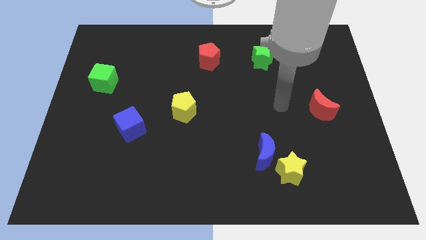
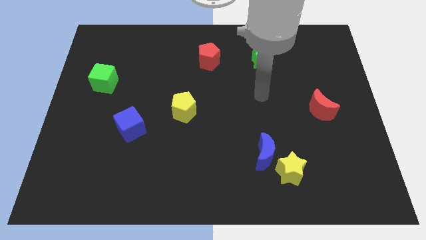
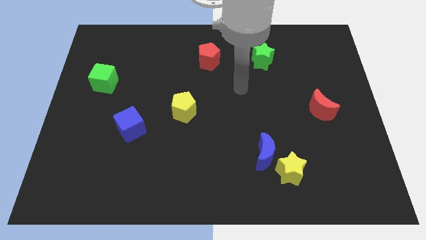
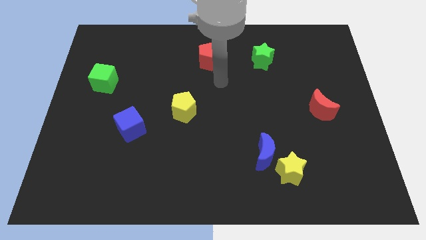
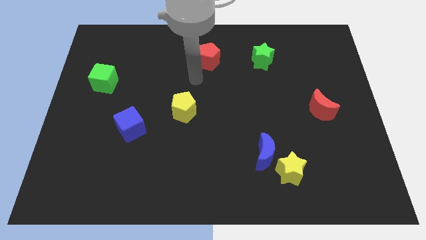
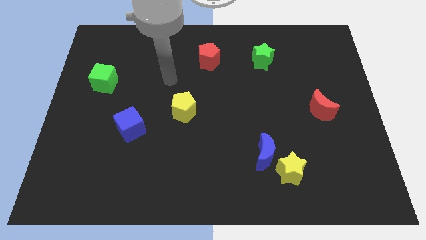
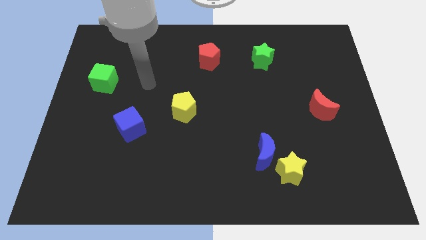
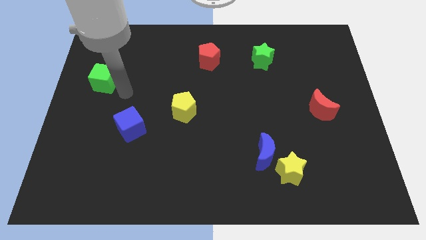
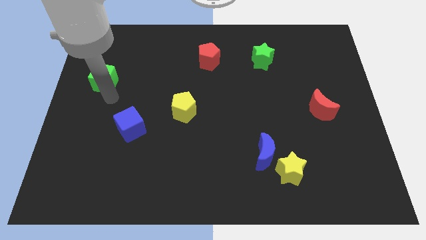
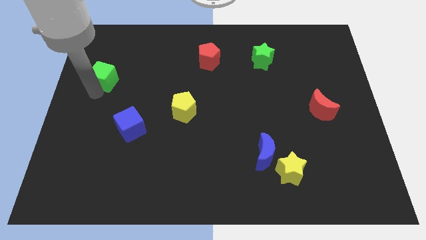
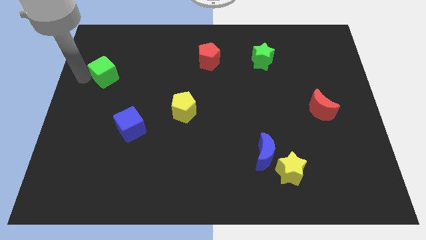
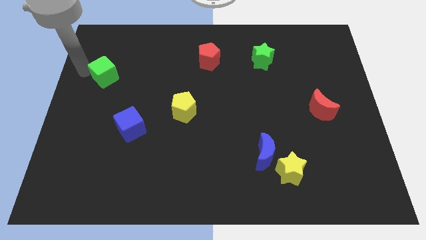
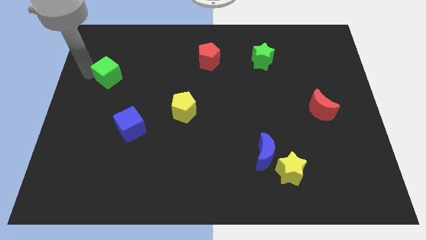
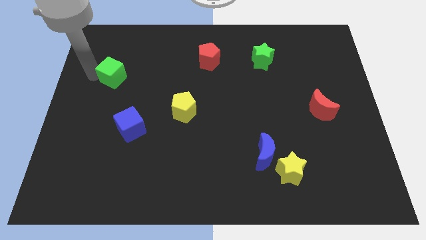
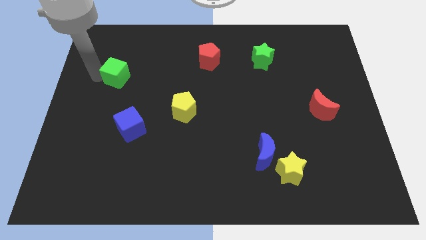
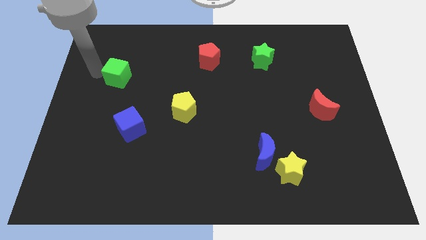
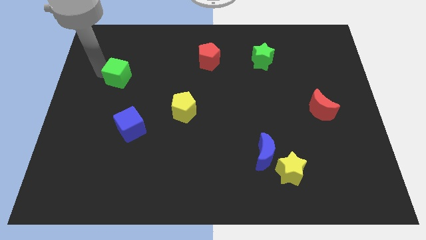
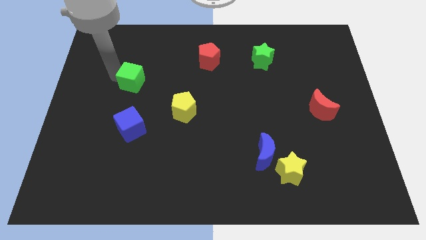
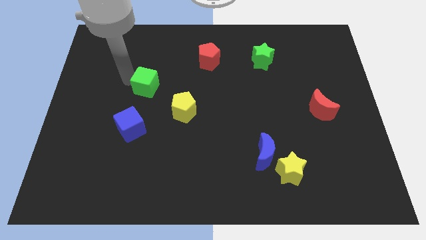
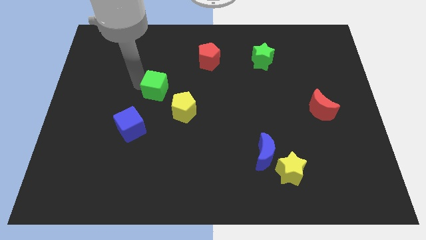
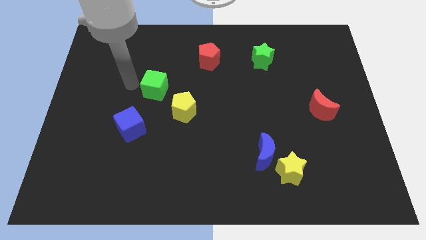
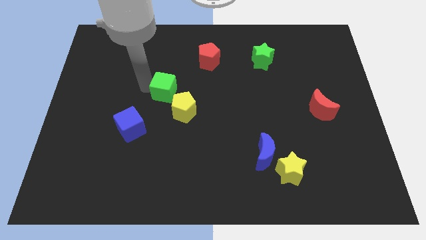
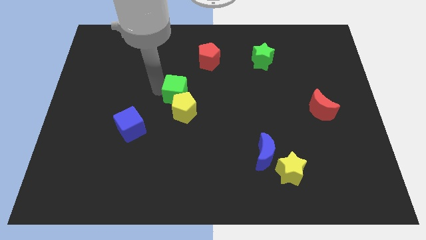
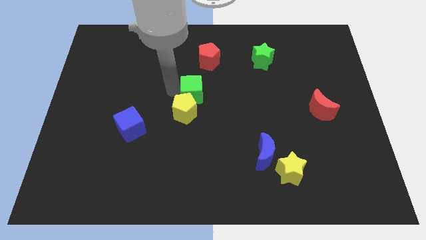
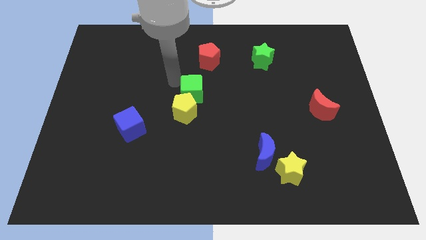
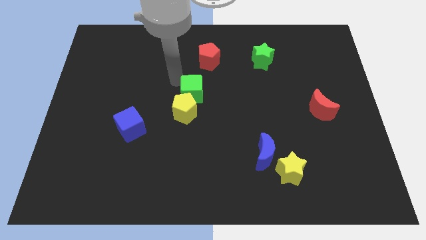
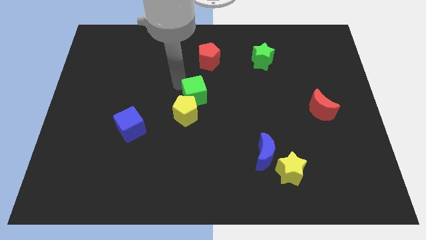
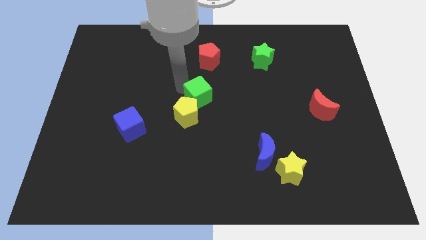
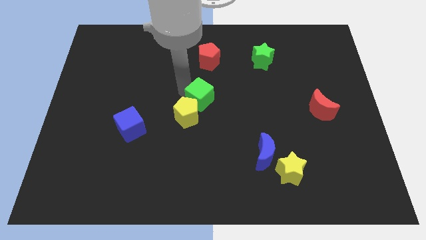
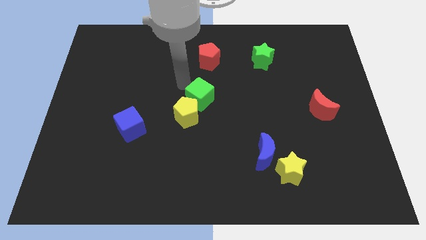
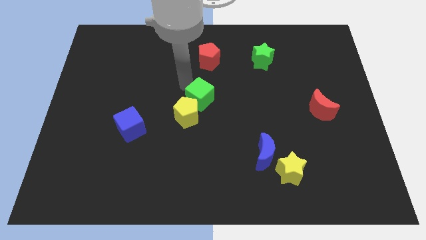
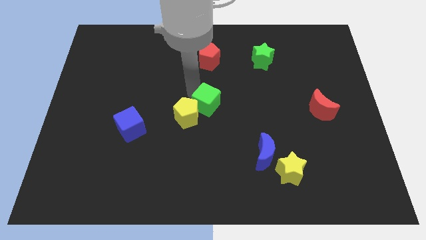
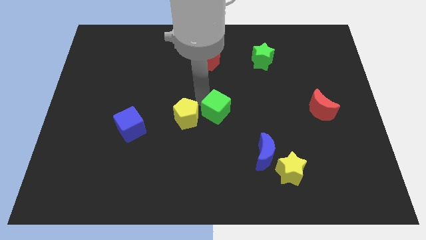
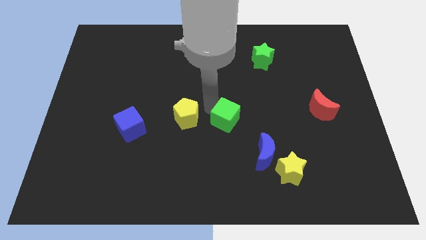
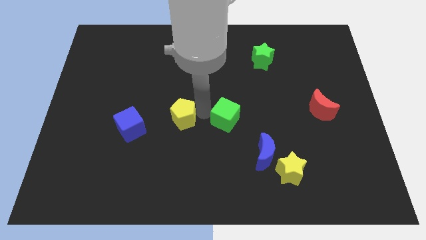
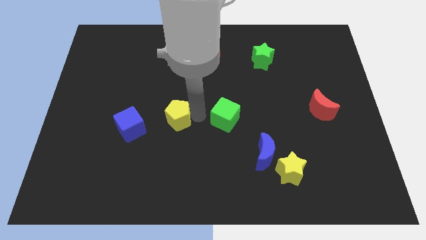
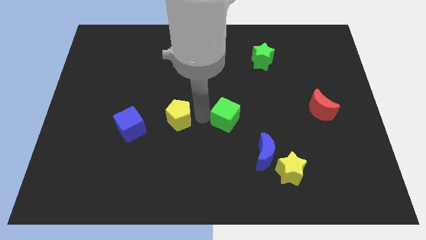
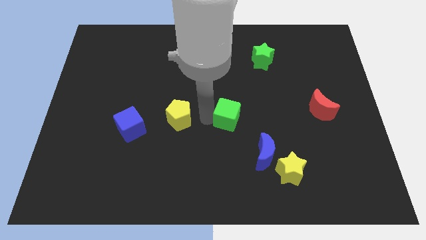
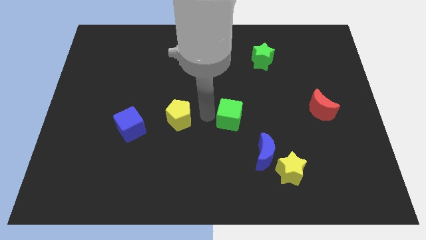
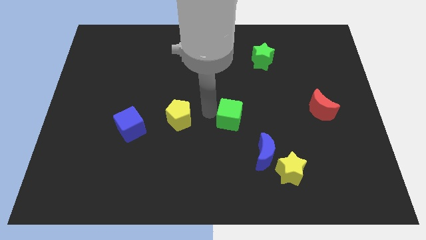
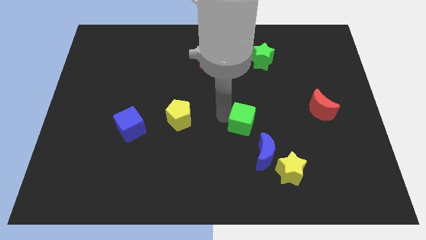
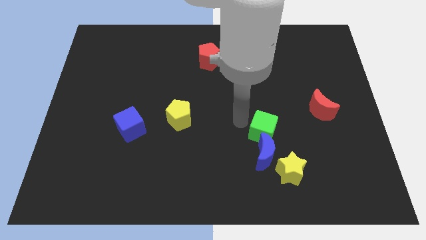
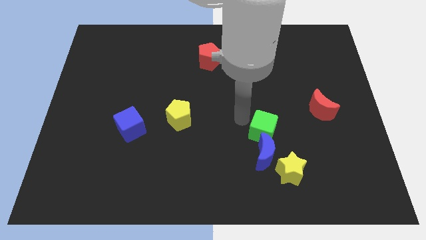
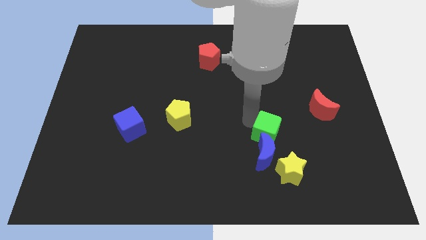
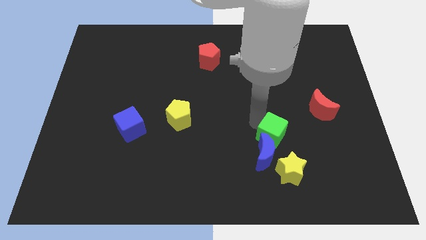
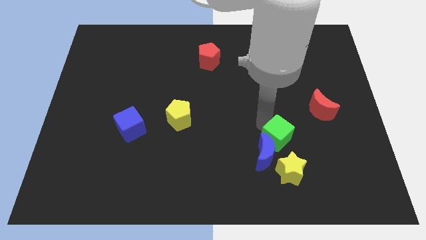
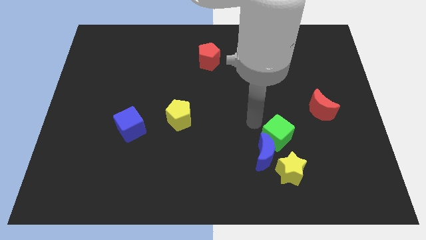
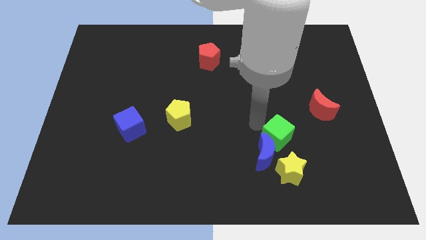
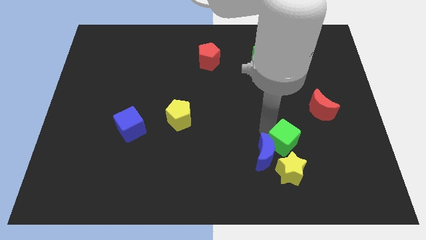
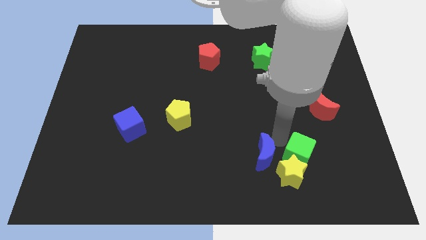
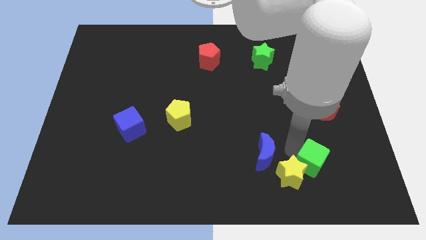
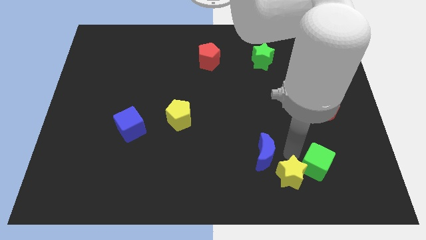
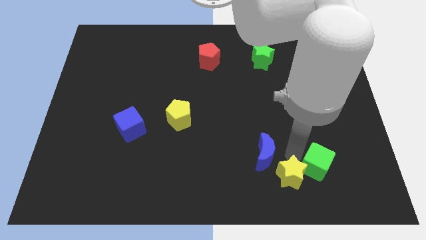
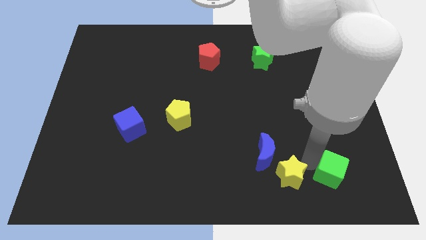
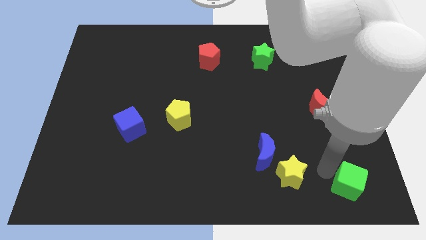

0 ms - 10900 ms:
put the green cube to the lower right corner

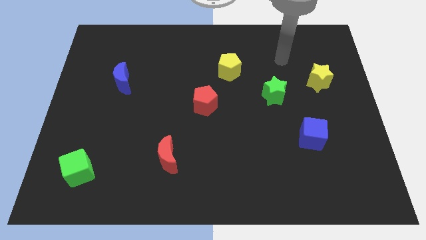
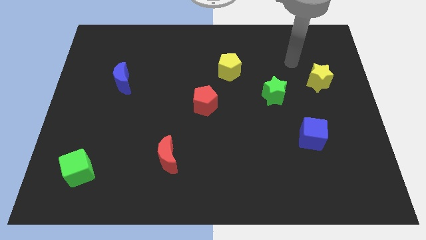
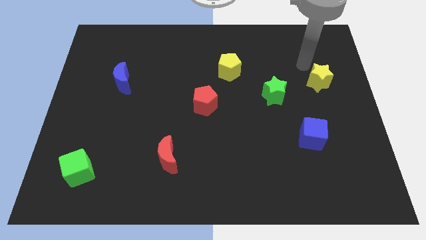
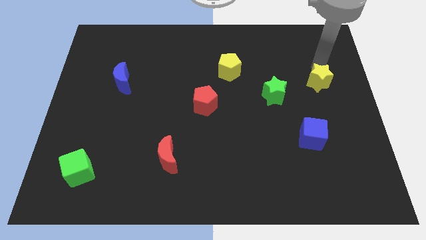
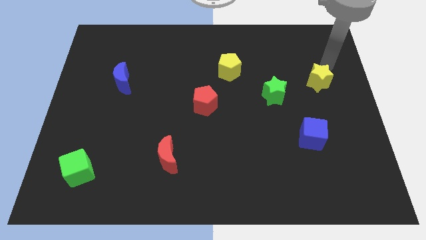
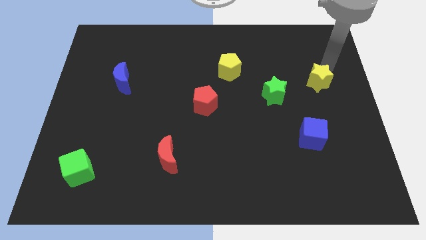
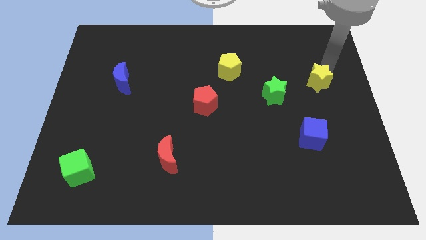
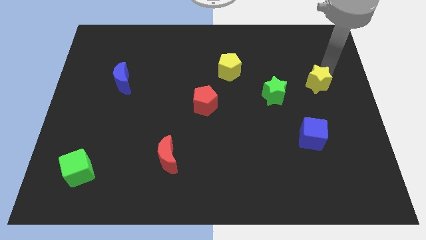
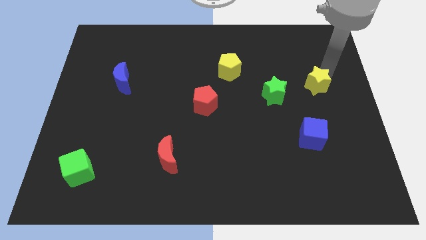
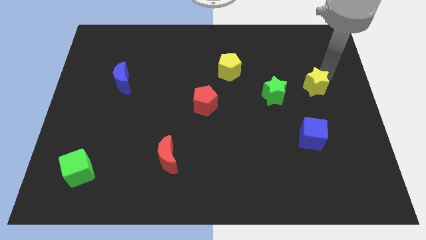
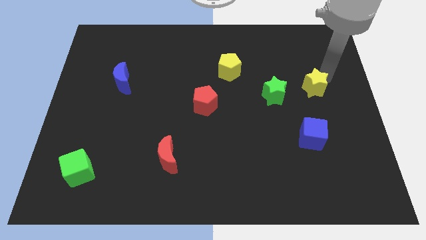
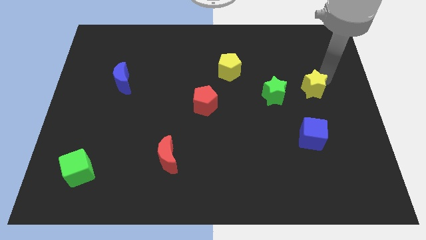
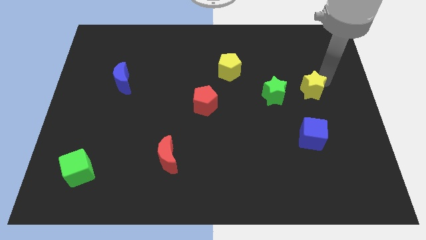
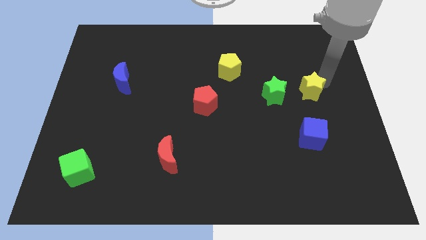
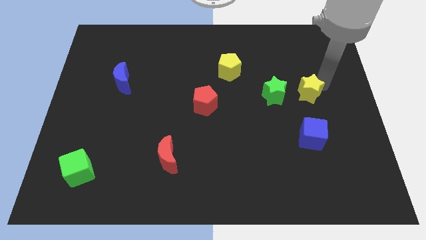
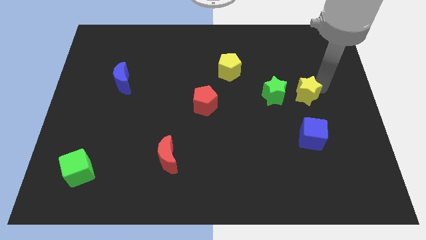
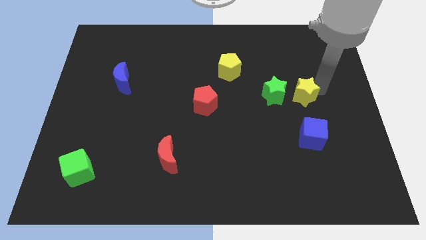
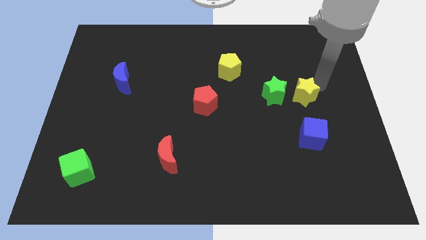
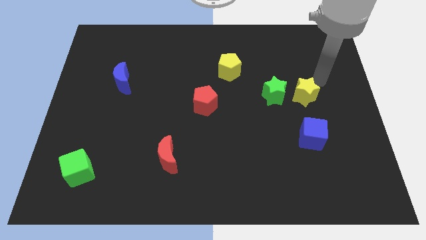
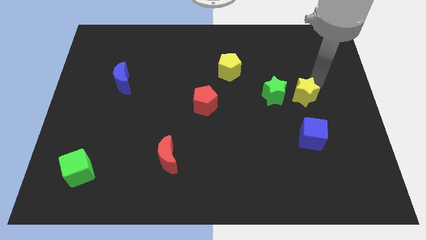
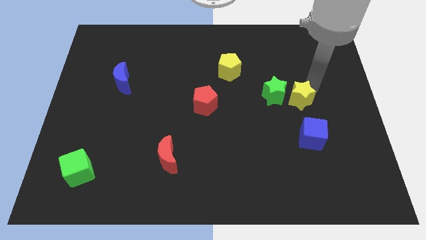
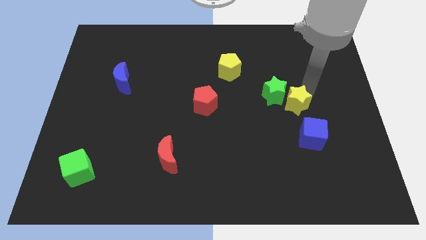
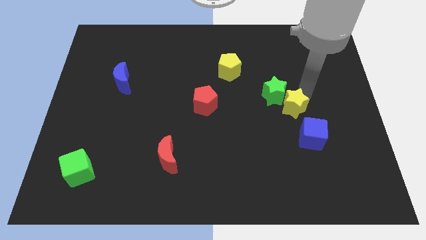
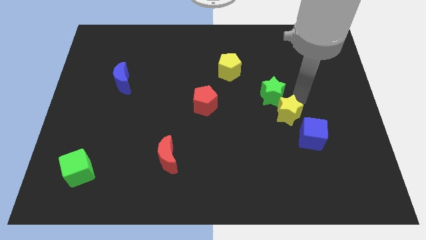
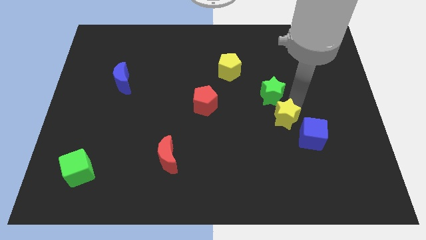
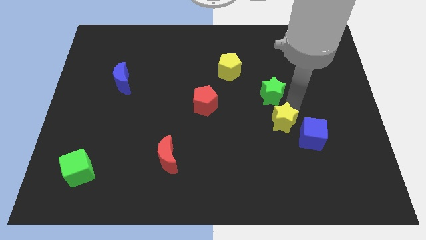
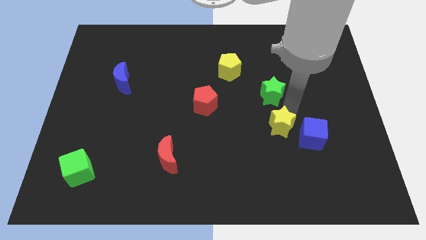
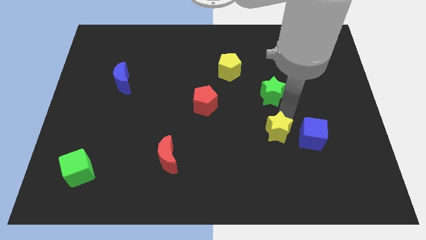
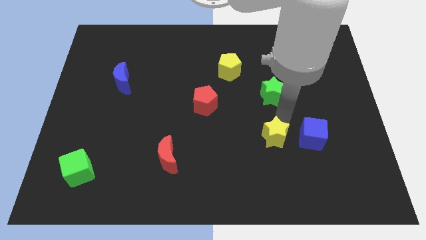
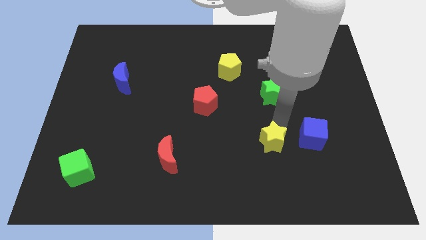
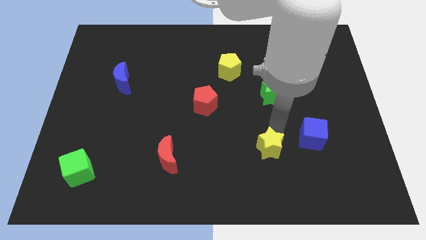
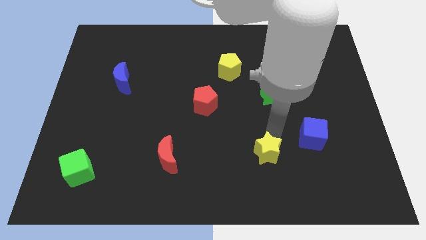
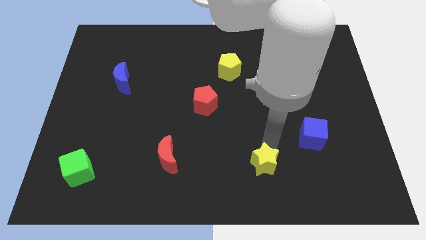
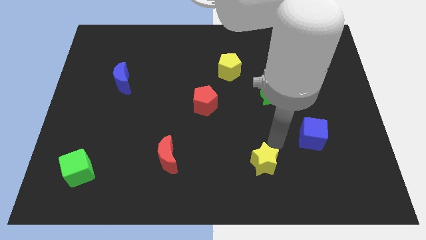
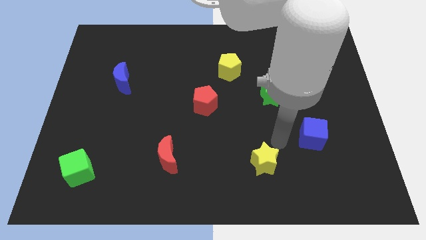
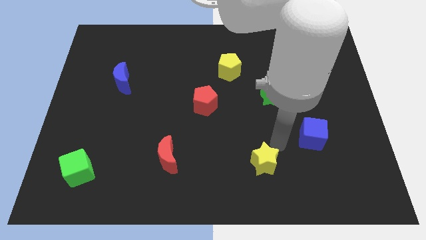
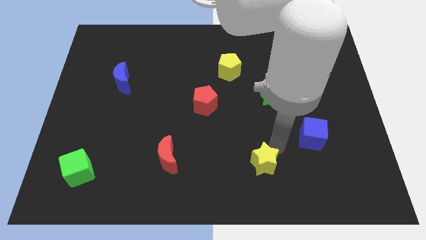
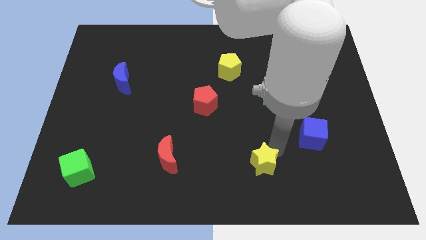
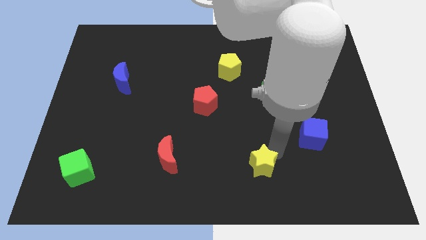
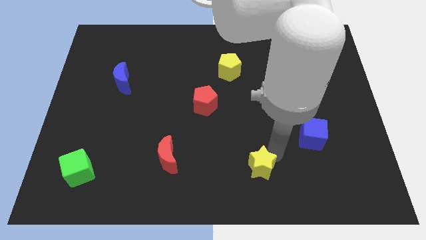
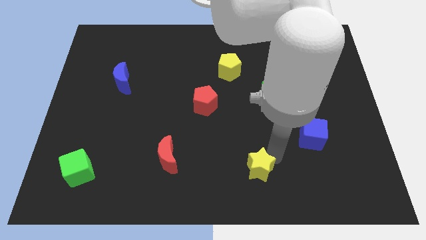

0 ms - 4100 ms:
put the yellow star to the bottom side
